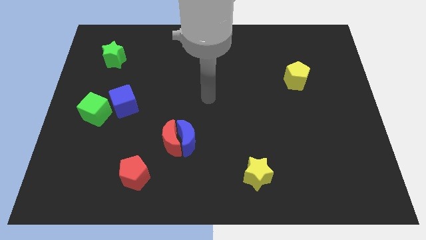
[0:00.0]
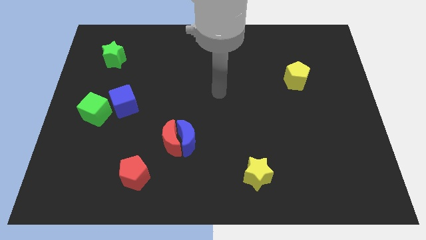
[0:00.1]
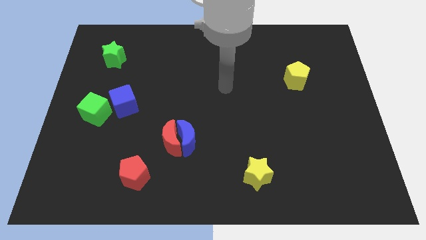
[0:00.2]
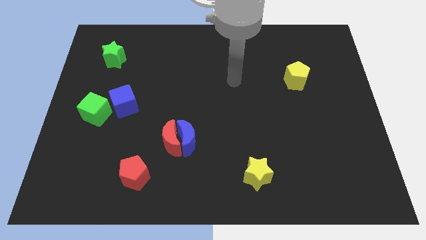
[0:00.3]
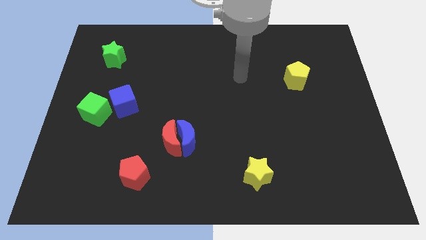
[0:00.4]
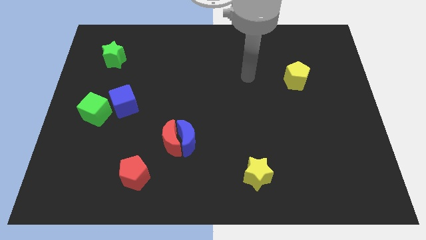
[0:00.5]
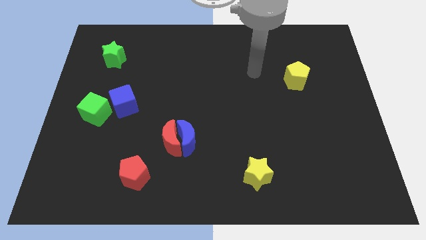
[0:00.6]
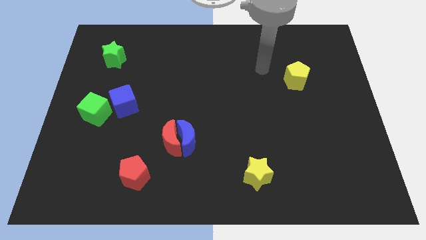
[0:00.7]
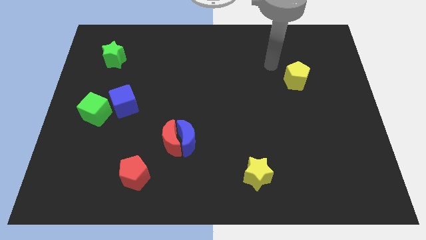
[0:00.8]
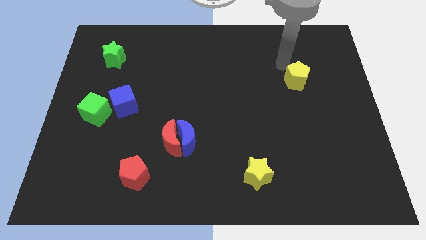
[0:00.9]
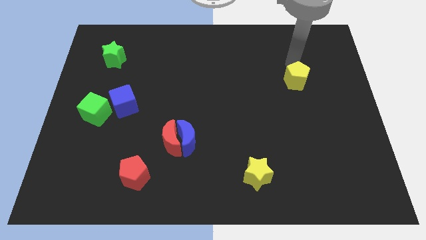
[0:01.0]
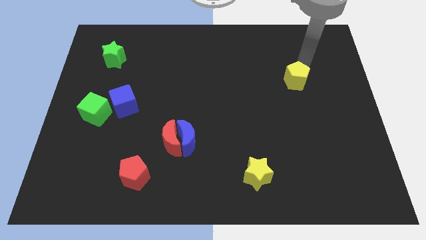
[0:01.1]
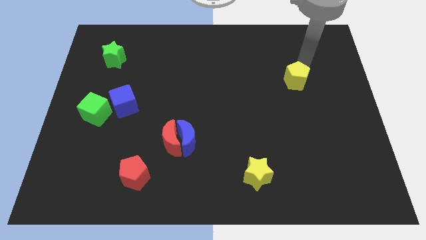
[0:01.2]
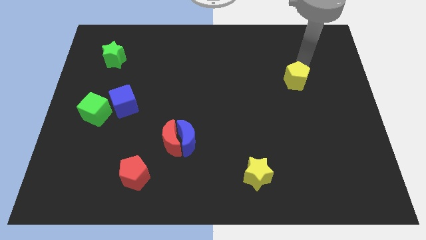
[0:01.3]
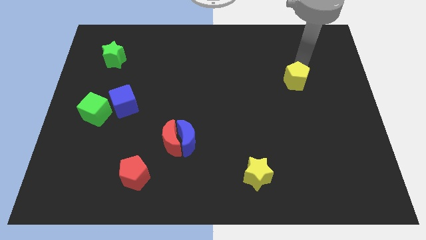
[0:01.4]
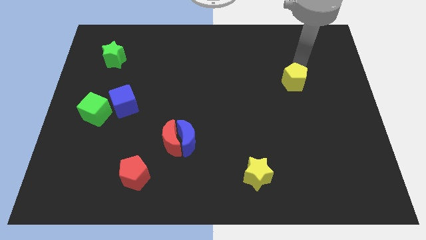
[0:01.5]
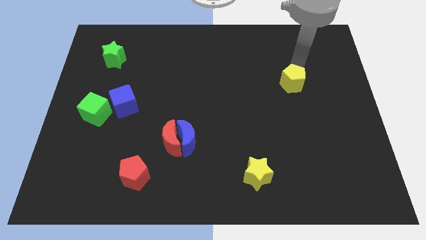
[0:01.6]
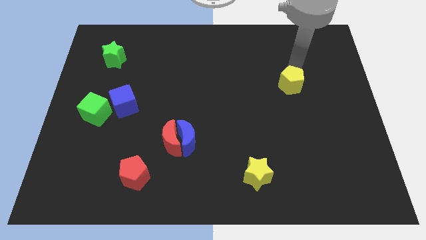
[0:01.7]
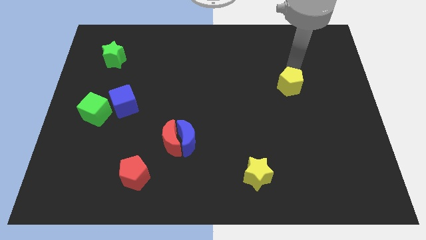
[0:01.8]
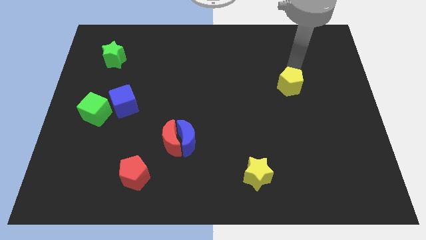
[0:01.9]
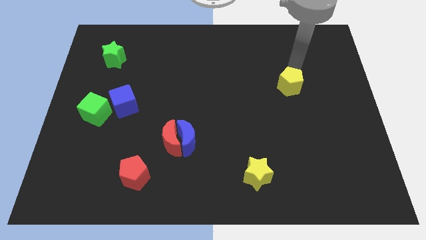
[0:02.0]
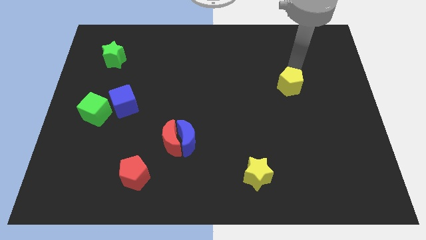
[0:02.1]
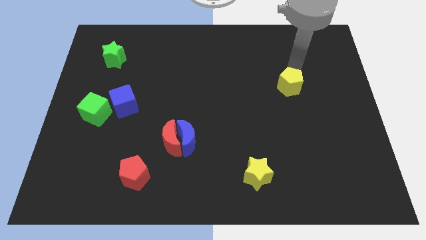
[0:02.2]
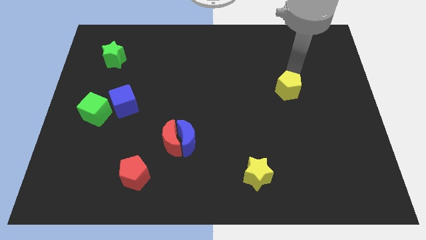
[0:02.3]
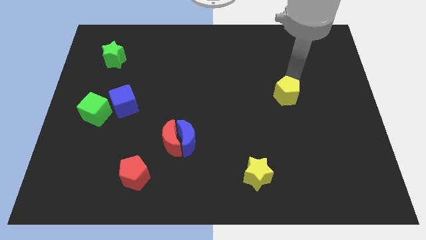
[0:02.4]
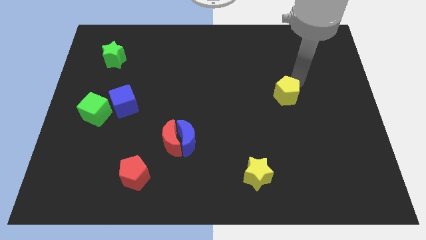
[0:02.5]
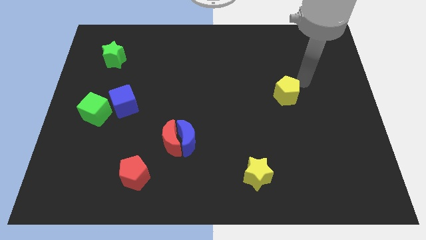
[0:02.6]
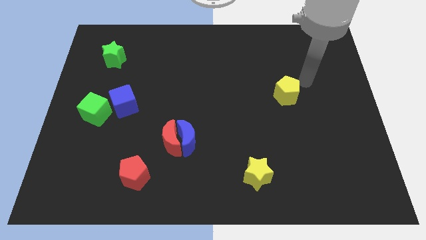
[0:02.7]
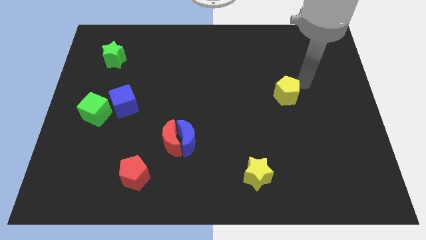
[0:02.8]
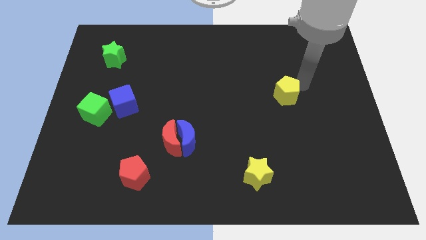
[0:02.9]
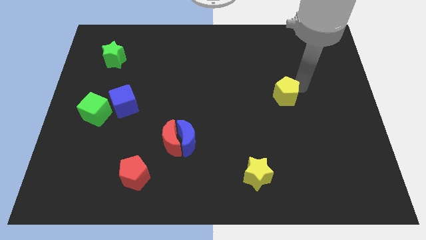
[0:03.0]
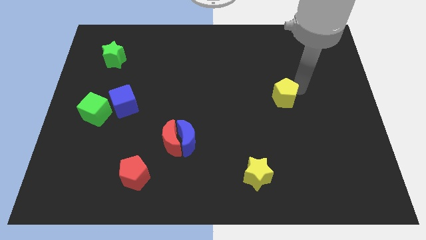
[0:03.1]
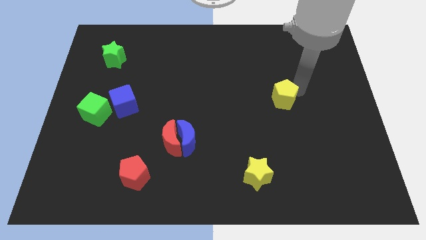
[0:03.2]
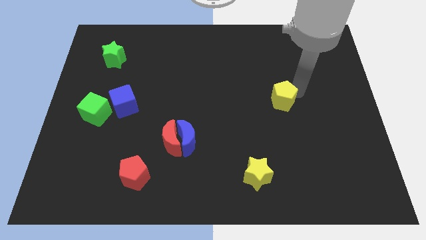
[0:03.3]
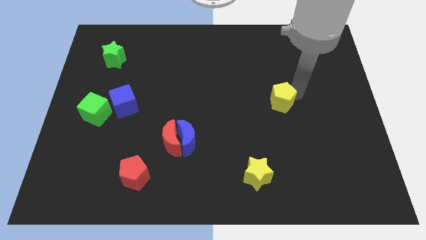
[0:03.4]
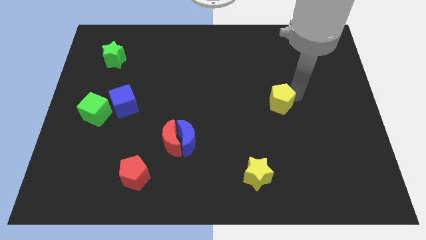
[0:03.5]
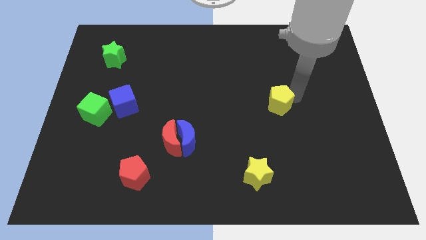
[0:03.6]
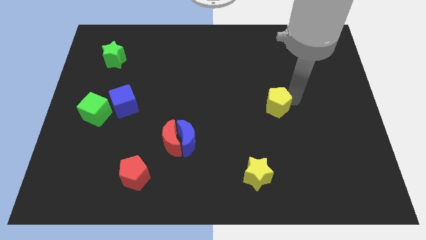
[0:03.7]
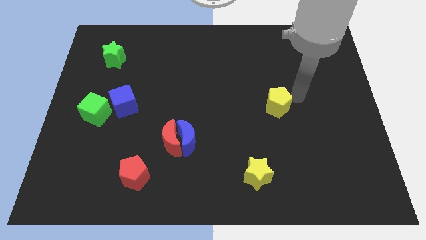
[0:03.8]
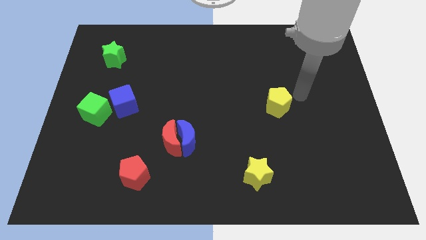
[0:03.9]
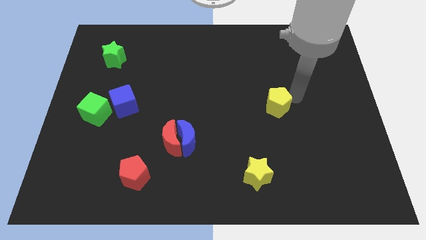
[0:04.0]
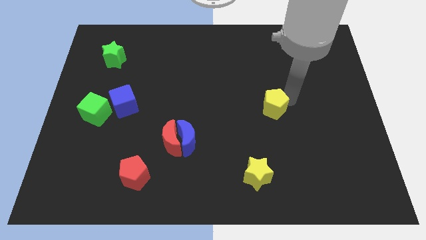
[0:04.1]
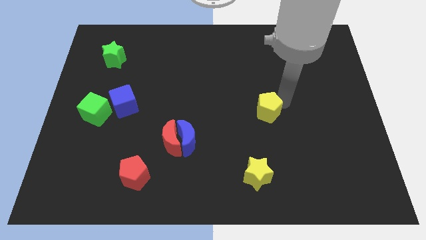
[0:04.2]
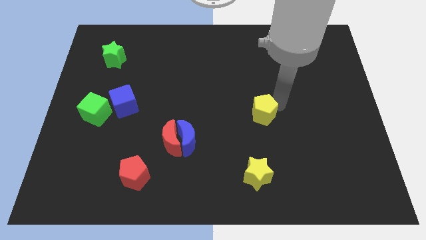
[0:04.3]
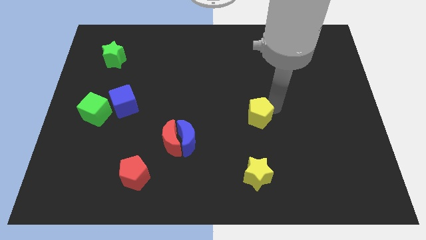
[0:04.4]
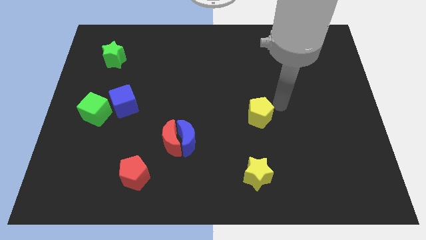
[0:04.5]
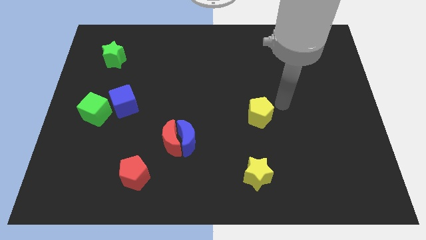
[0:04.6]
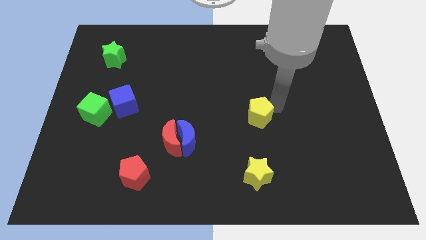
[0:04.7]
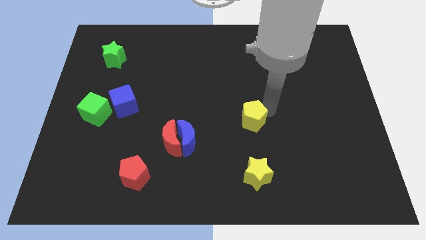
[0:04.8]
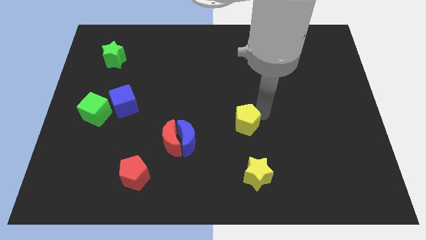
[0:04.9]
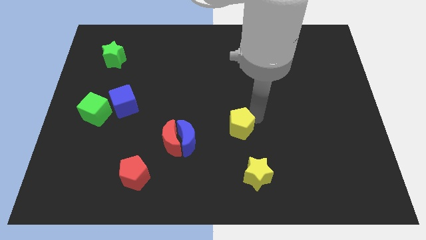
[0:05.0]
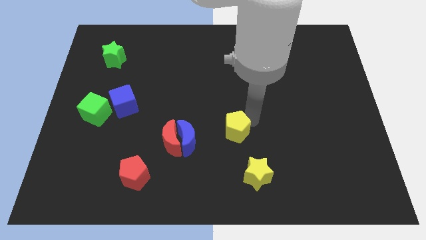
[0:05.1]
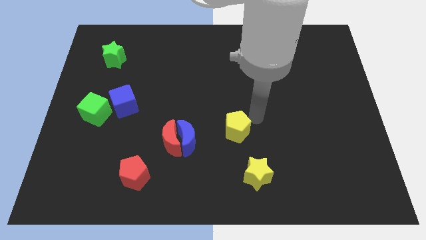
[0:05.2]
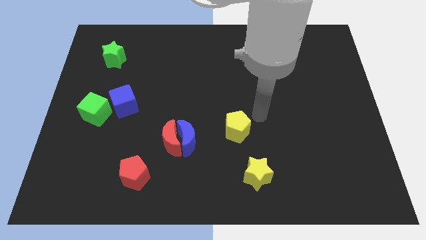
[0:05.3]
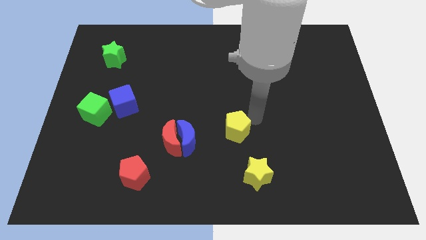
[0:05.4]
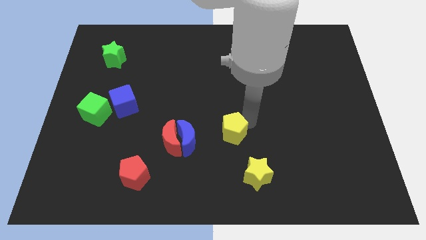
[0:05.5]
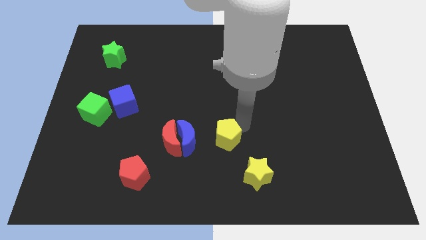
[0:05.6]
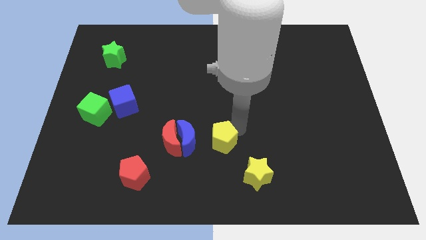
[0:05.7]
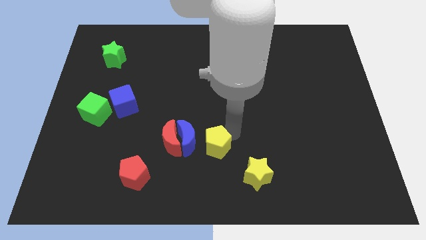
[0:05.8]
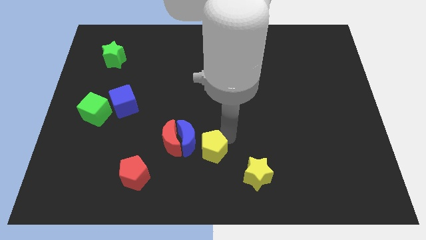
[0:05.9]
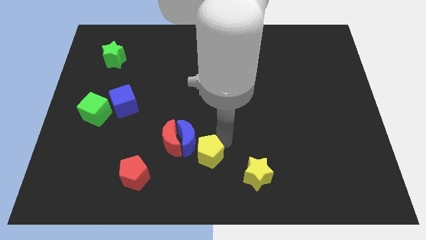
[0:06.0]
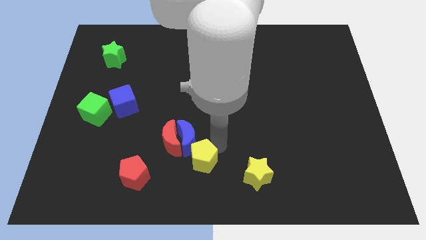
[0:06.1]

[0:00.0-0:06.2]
slide the yellow pentagon right of the red pentagon
